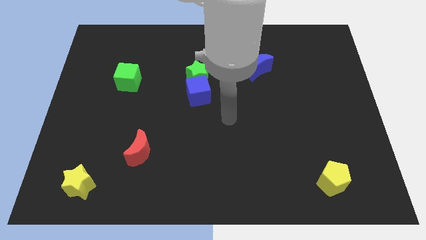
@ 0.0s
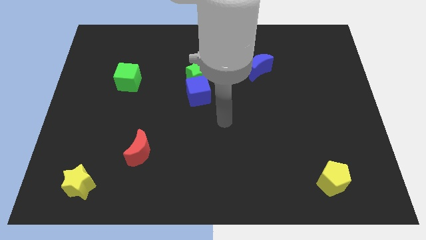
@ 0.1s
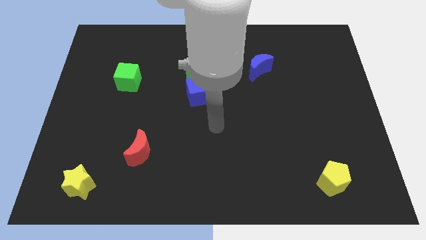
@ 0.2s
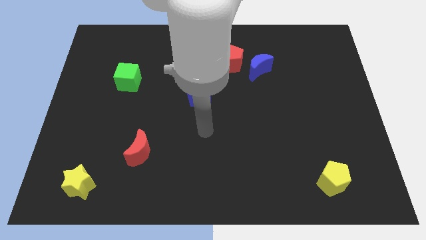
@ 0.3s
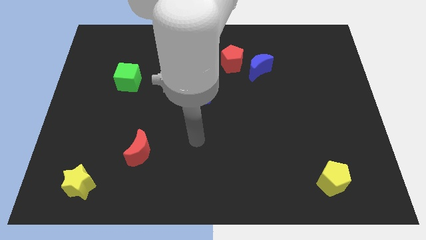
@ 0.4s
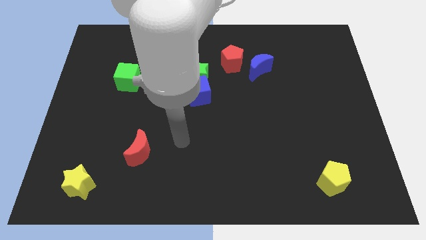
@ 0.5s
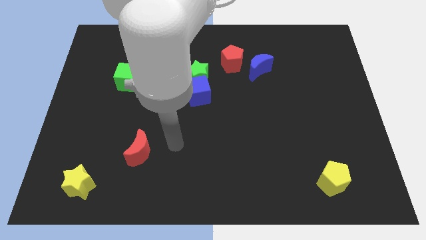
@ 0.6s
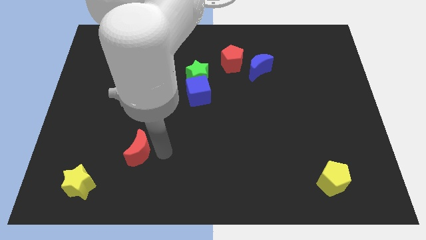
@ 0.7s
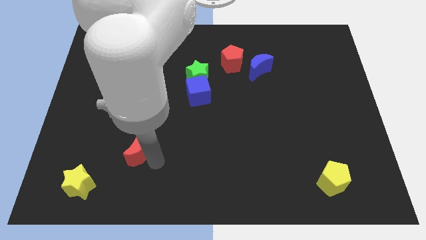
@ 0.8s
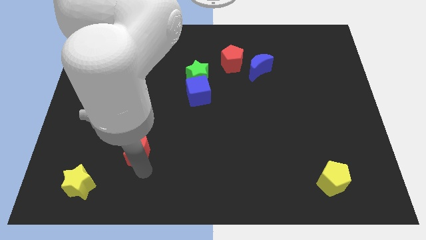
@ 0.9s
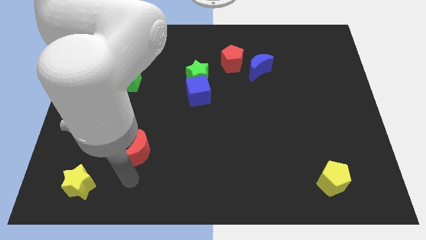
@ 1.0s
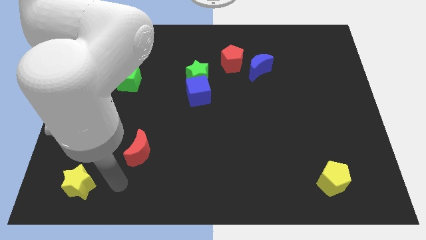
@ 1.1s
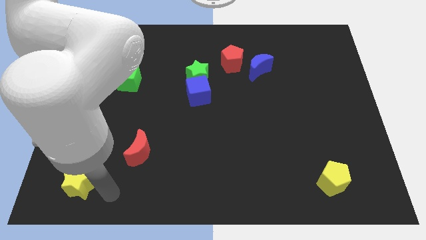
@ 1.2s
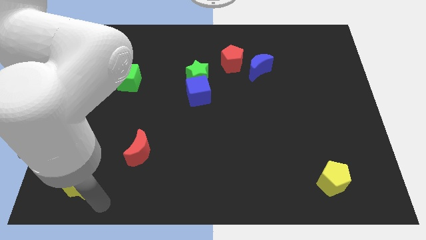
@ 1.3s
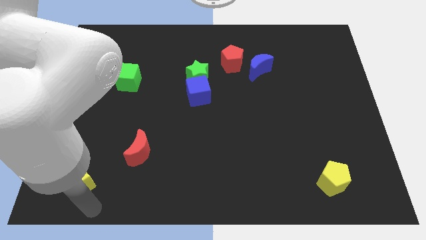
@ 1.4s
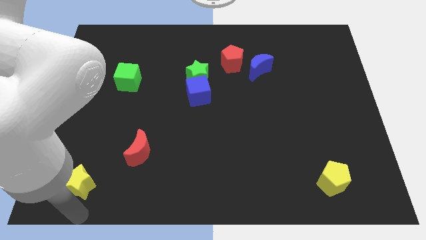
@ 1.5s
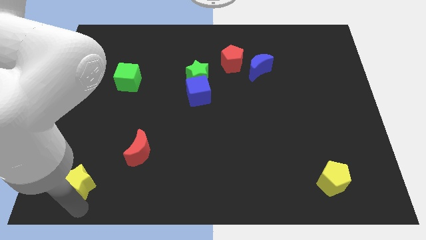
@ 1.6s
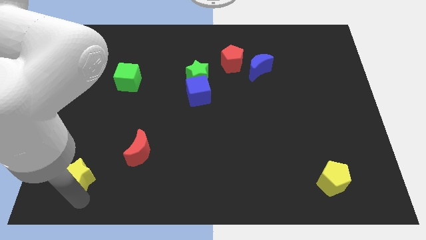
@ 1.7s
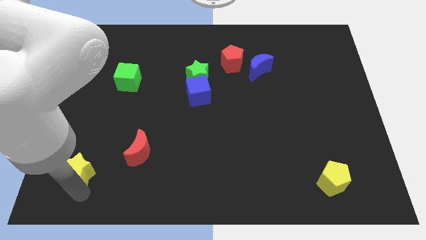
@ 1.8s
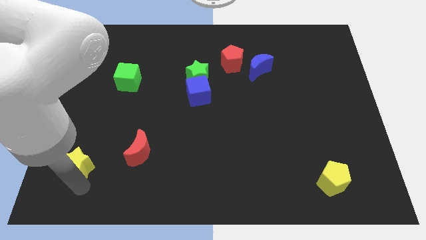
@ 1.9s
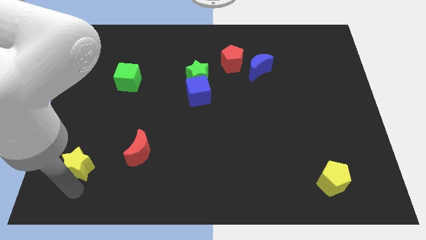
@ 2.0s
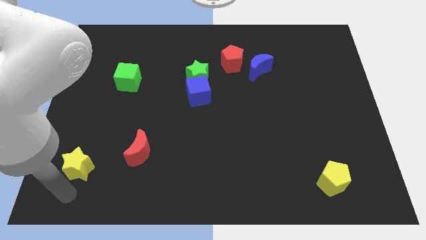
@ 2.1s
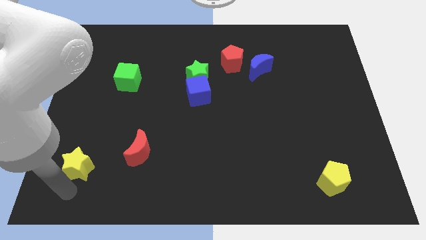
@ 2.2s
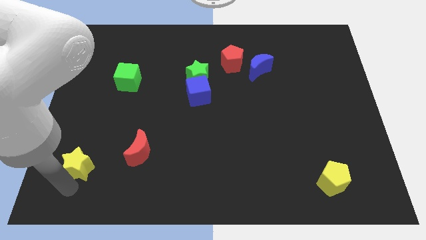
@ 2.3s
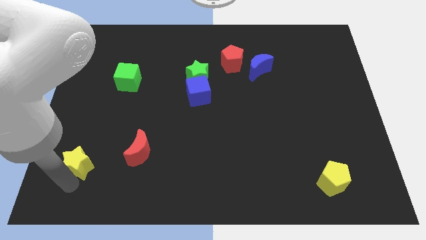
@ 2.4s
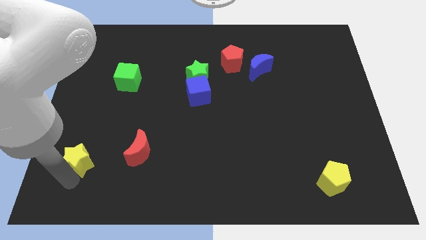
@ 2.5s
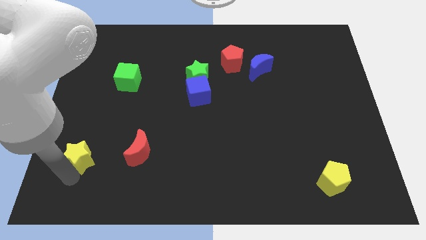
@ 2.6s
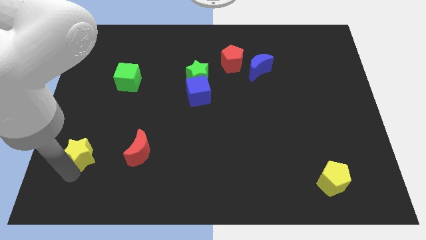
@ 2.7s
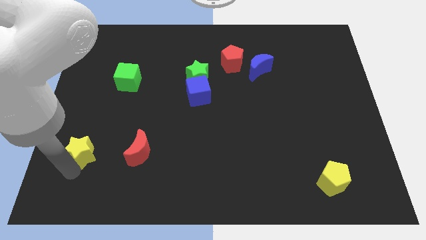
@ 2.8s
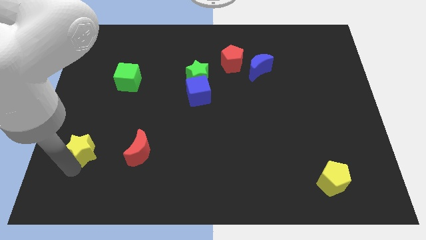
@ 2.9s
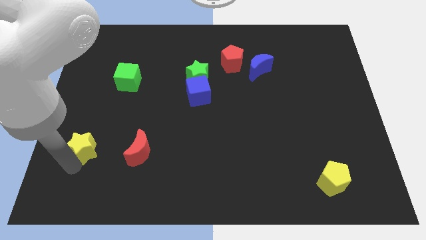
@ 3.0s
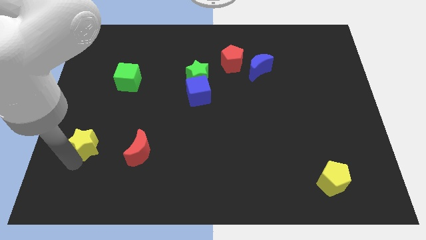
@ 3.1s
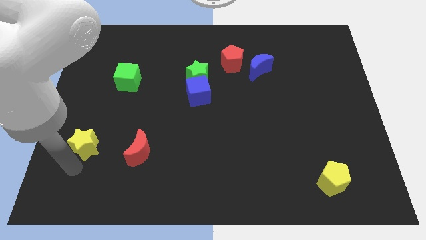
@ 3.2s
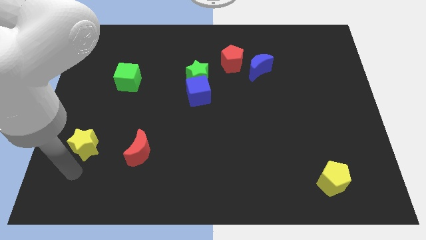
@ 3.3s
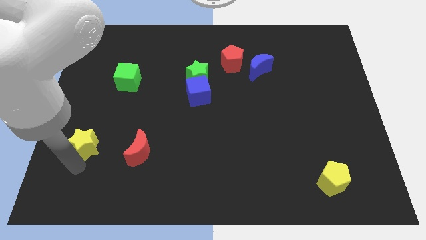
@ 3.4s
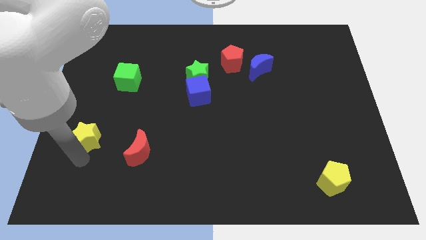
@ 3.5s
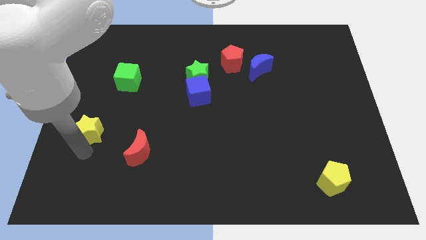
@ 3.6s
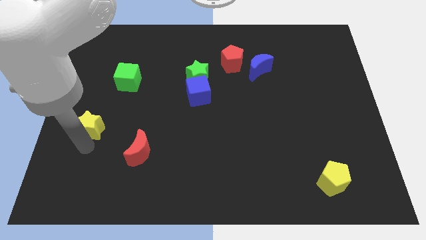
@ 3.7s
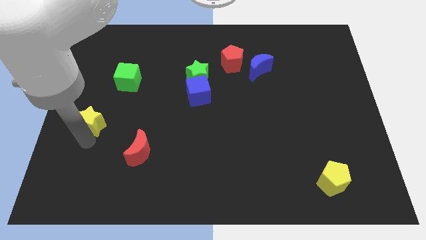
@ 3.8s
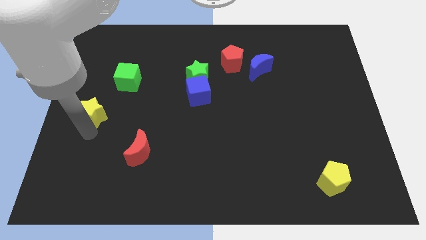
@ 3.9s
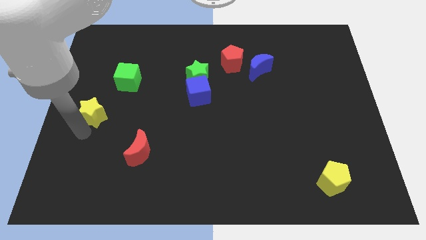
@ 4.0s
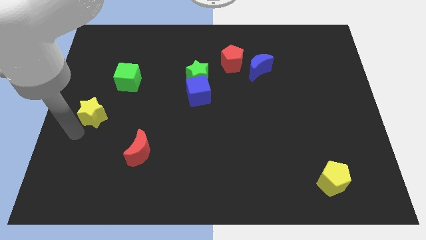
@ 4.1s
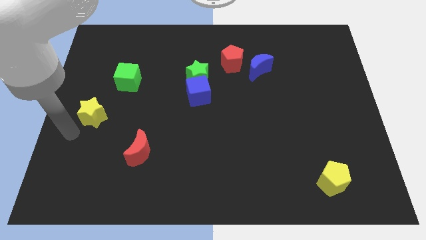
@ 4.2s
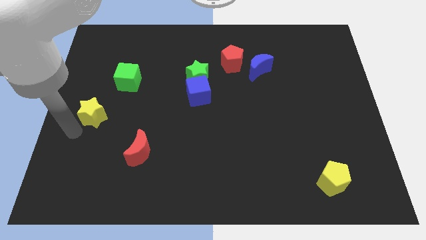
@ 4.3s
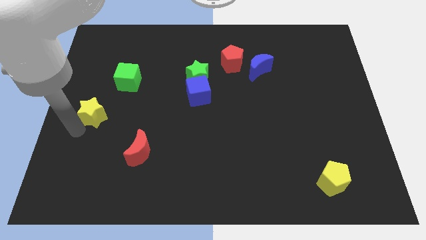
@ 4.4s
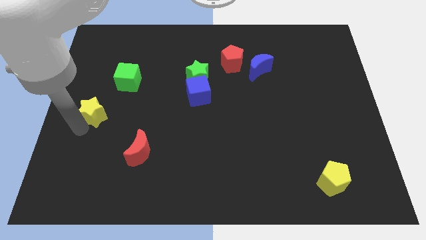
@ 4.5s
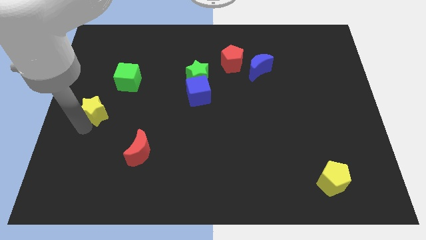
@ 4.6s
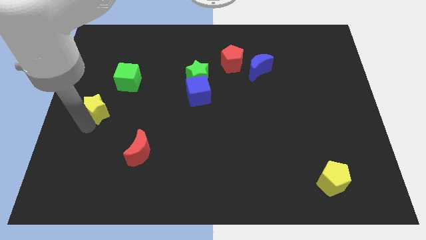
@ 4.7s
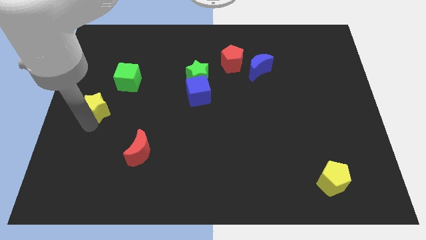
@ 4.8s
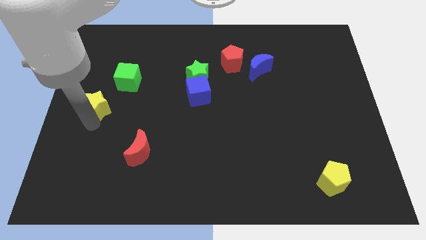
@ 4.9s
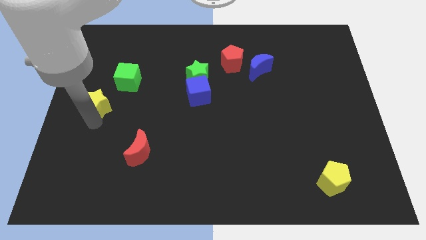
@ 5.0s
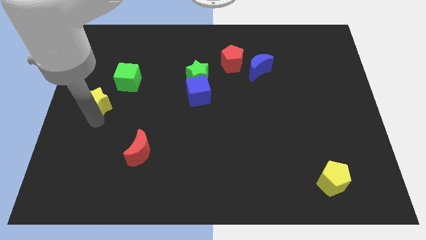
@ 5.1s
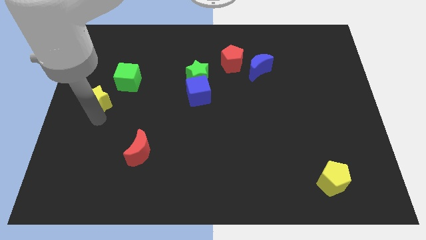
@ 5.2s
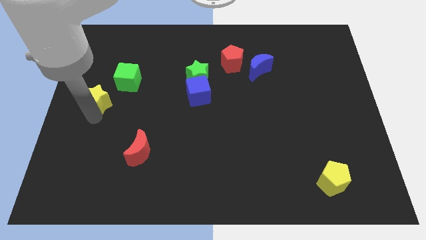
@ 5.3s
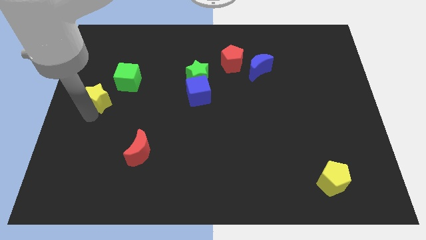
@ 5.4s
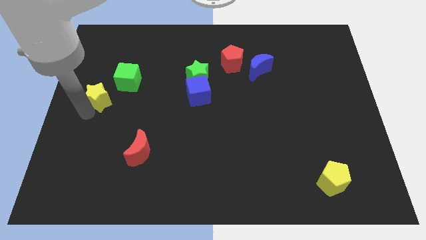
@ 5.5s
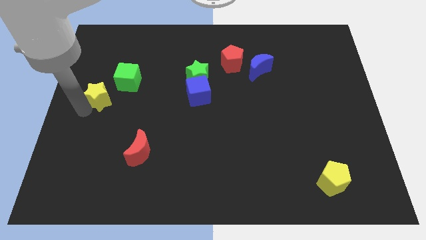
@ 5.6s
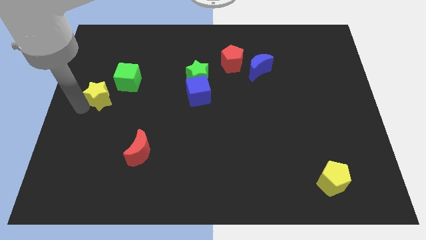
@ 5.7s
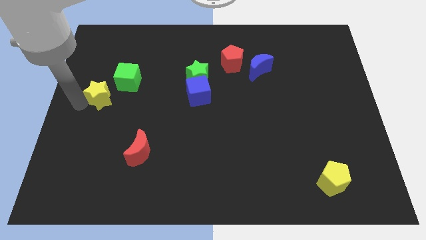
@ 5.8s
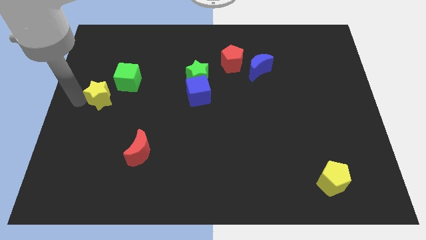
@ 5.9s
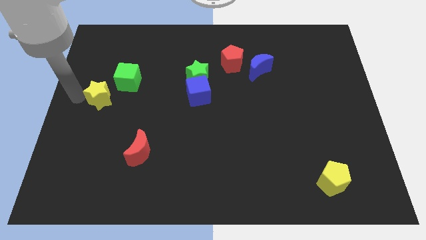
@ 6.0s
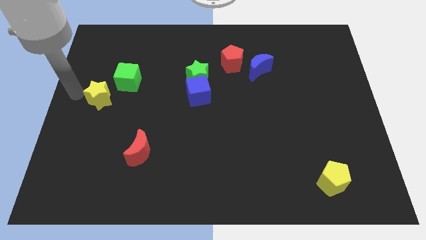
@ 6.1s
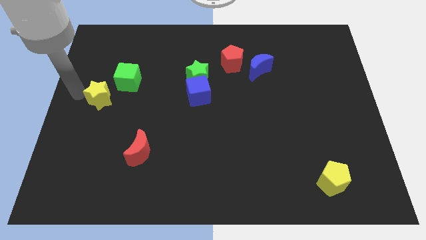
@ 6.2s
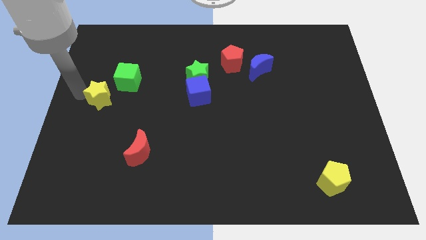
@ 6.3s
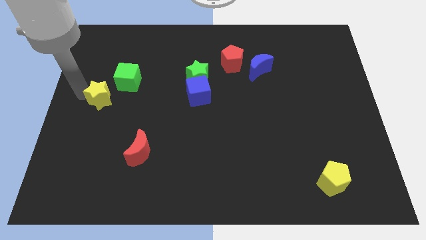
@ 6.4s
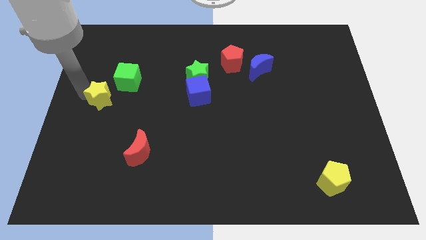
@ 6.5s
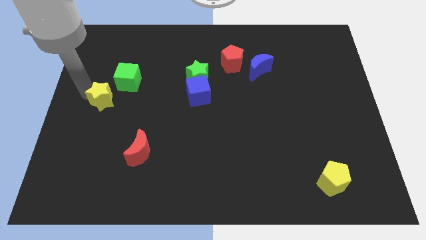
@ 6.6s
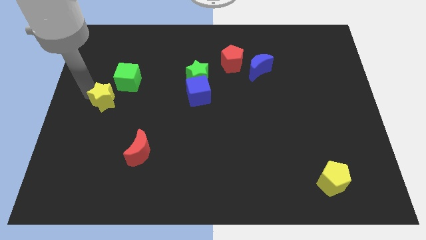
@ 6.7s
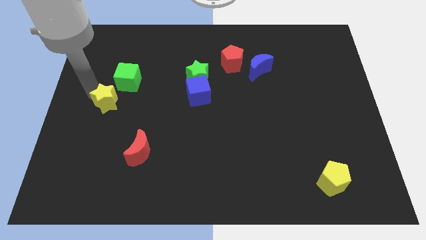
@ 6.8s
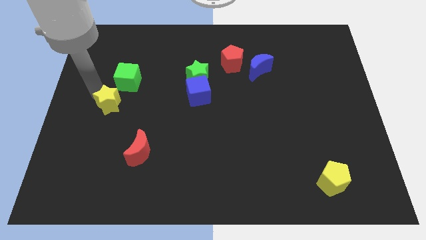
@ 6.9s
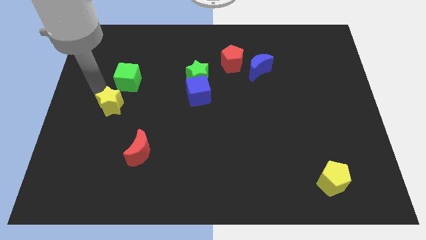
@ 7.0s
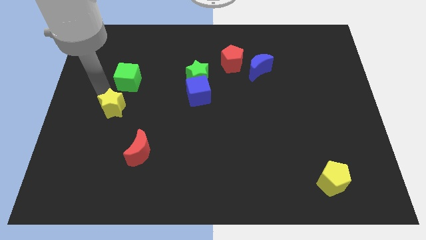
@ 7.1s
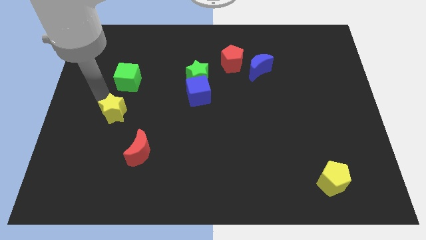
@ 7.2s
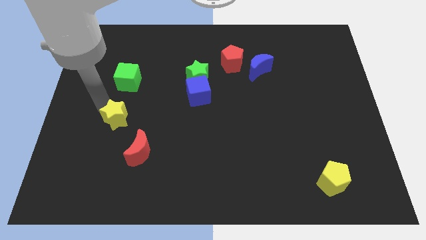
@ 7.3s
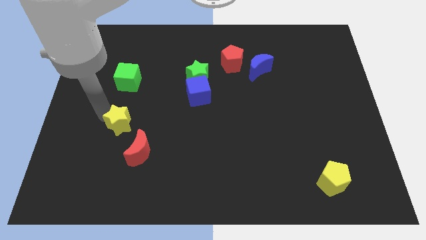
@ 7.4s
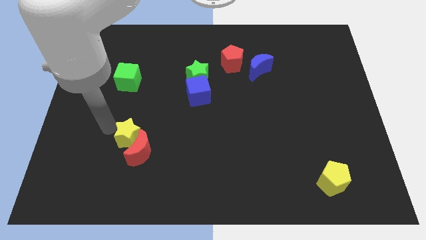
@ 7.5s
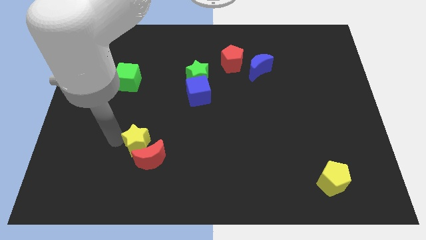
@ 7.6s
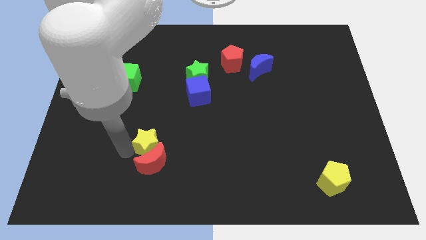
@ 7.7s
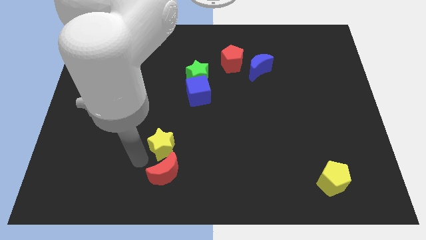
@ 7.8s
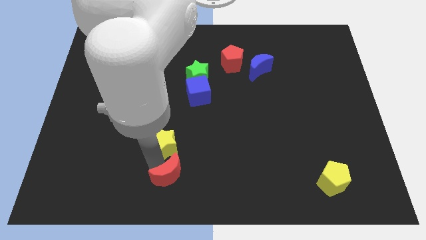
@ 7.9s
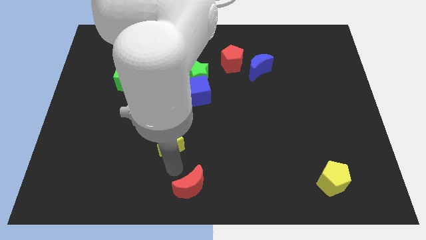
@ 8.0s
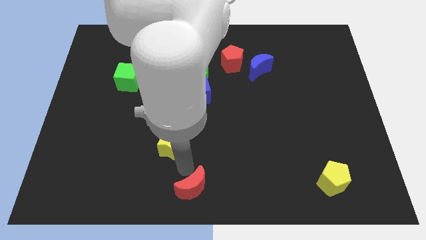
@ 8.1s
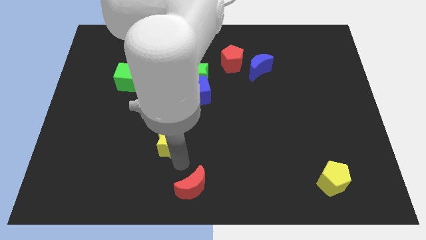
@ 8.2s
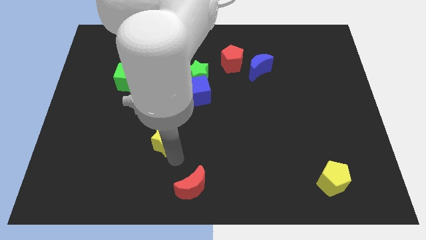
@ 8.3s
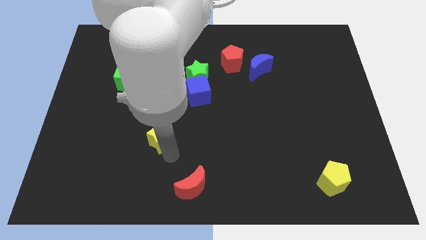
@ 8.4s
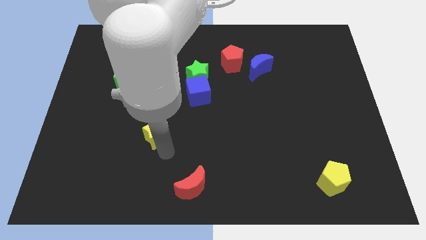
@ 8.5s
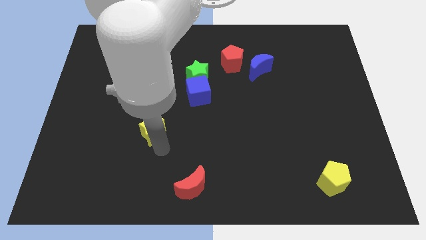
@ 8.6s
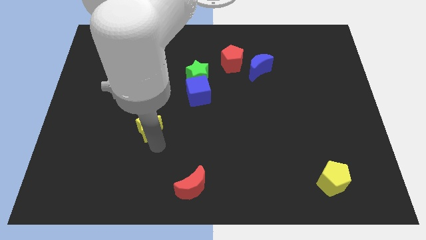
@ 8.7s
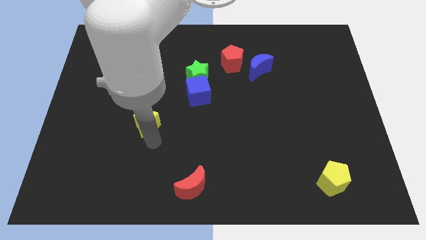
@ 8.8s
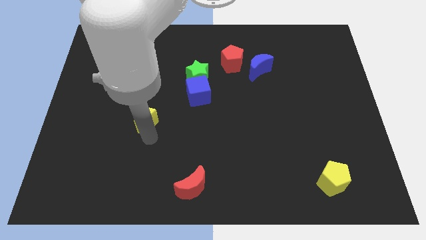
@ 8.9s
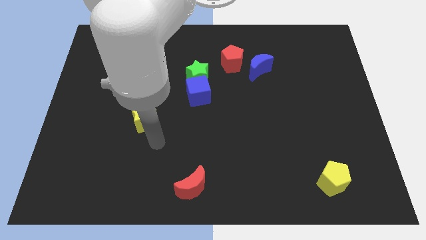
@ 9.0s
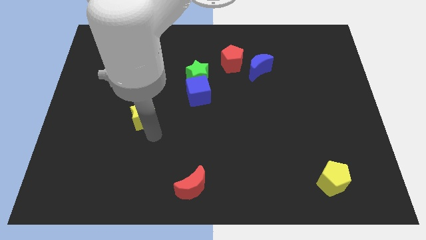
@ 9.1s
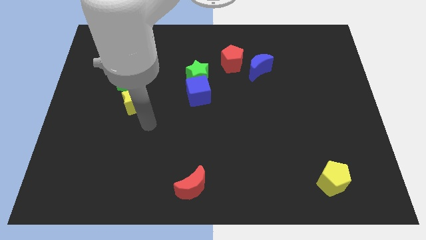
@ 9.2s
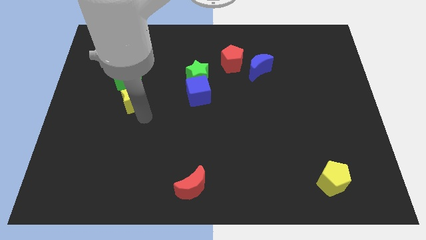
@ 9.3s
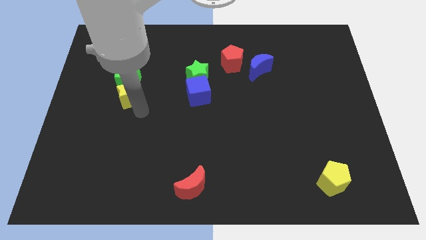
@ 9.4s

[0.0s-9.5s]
put the yellow star towards the green cube
